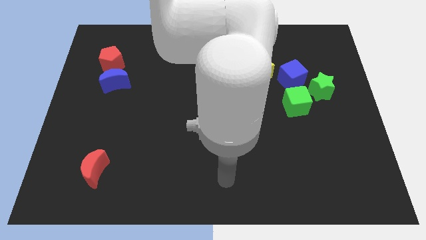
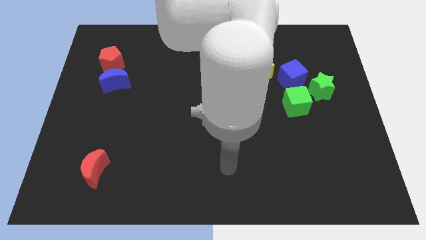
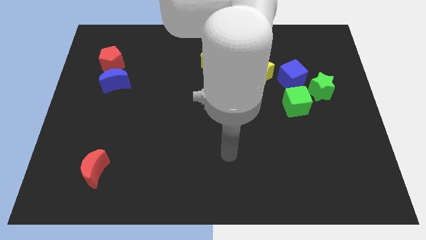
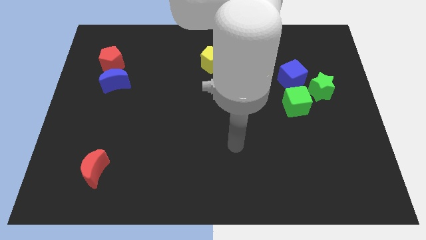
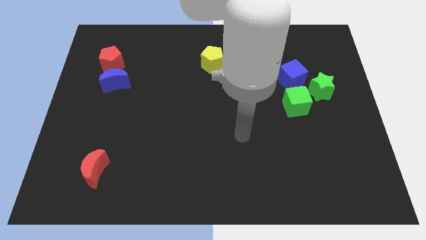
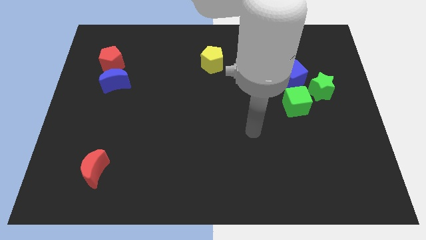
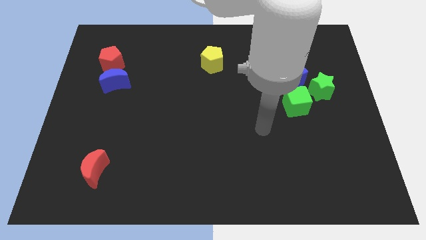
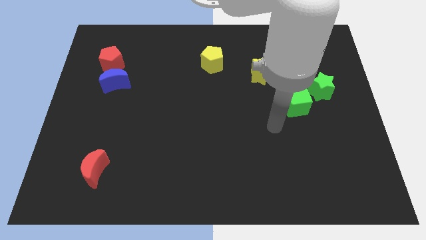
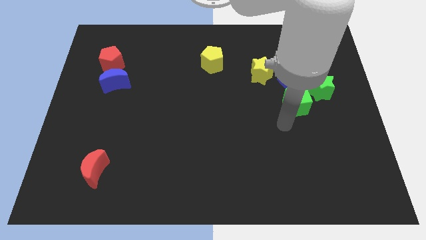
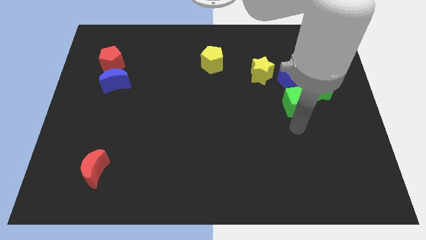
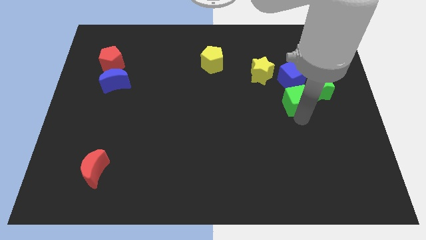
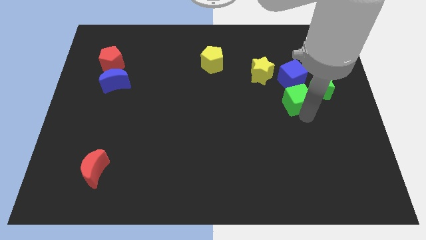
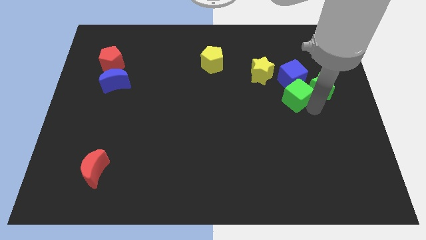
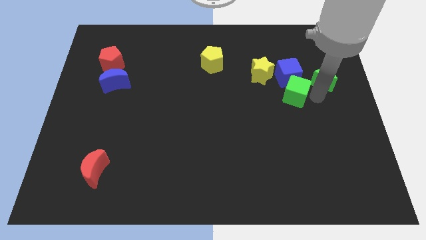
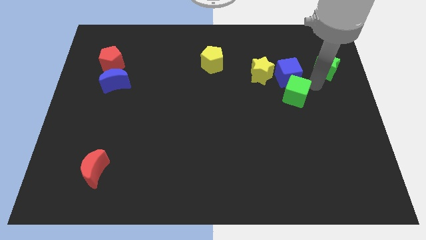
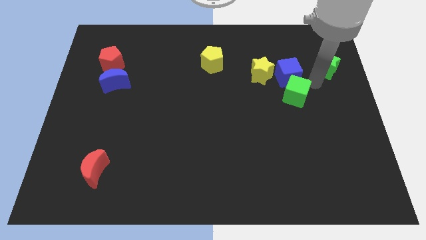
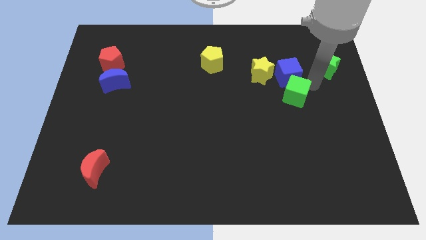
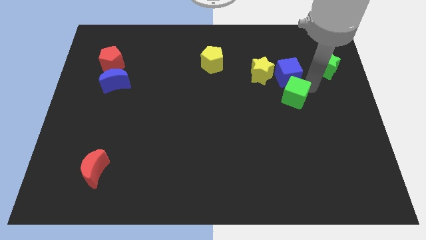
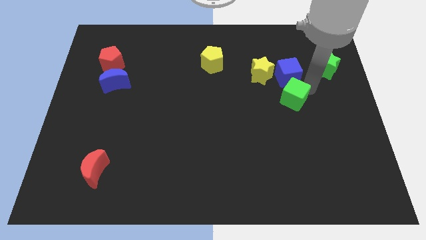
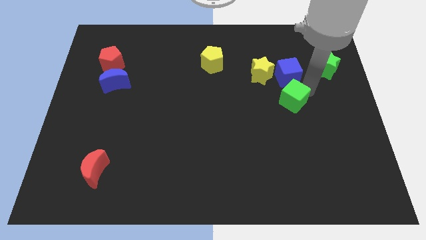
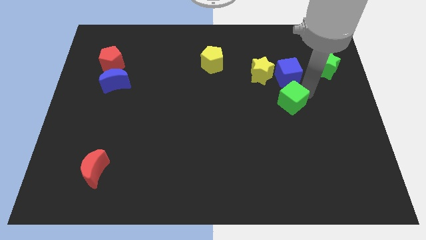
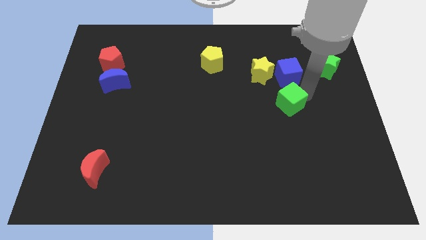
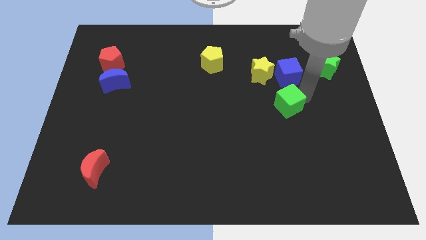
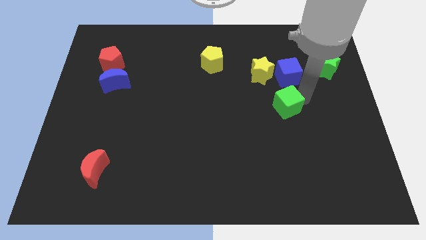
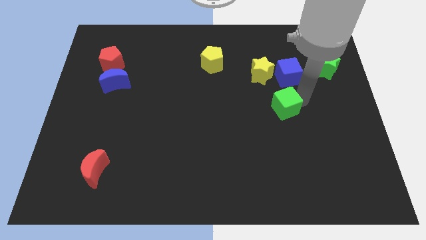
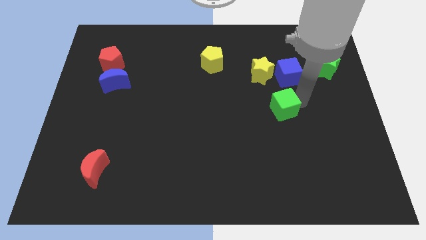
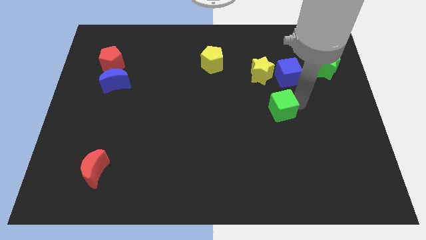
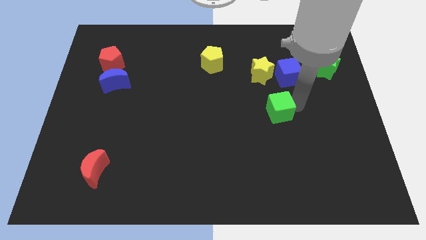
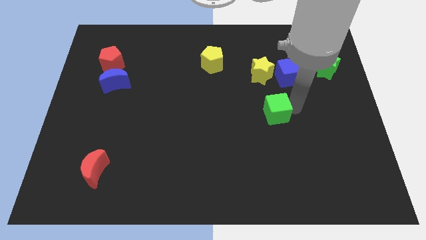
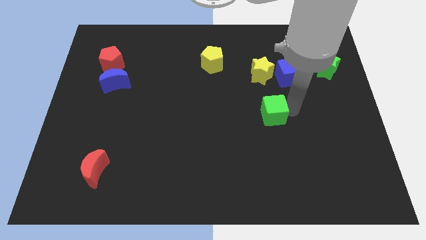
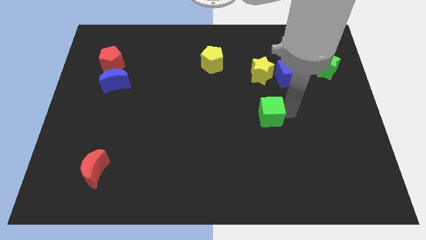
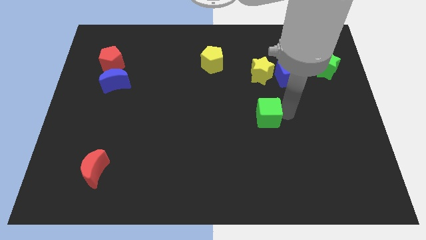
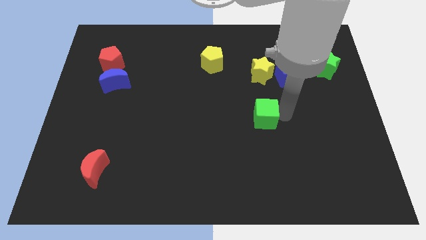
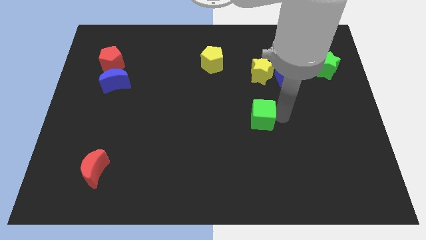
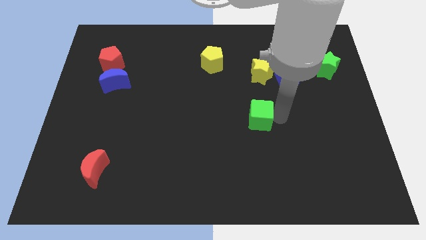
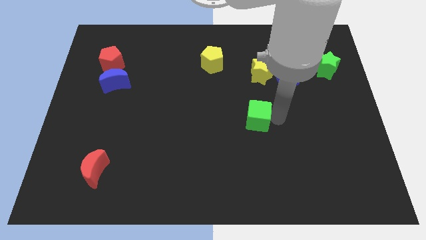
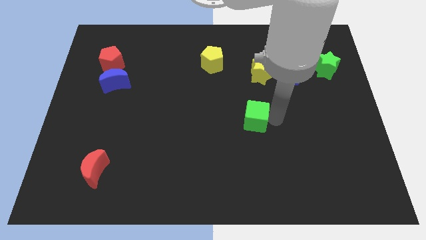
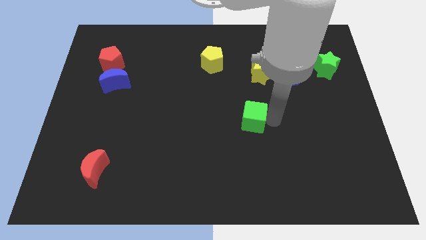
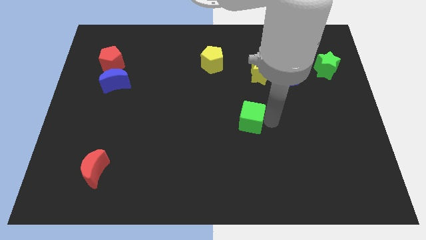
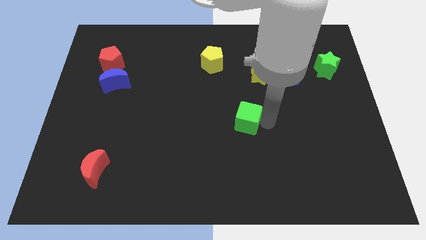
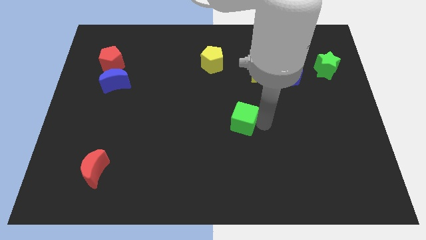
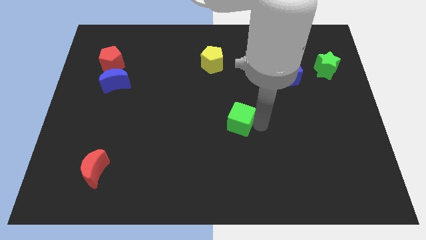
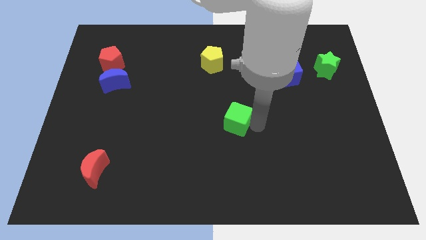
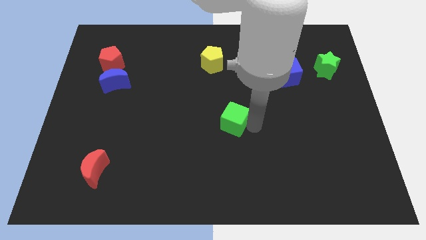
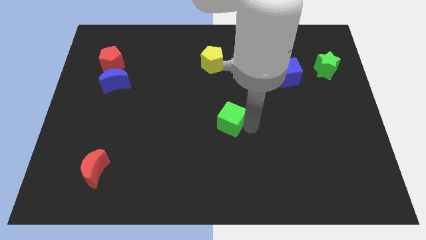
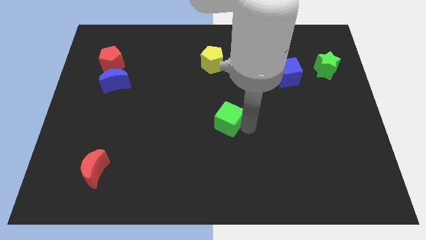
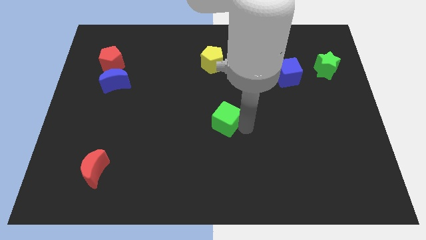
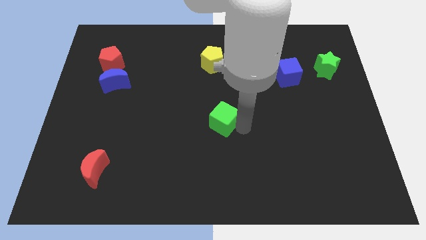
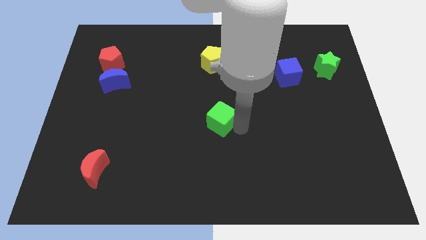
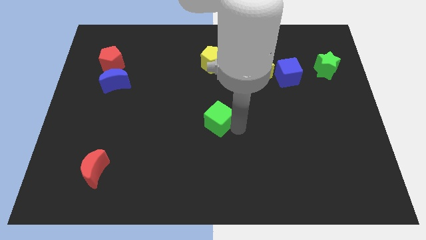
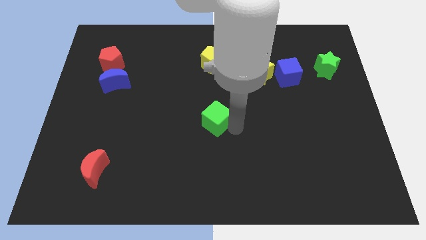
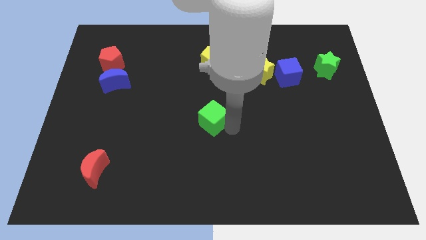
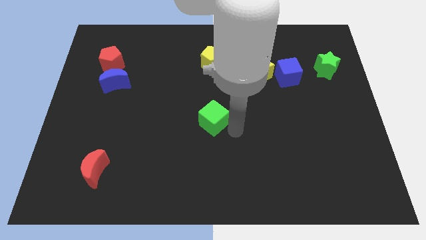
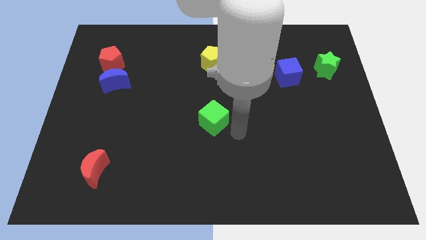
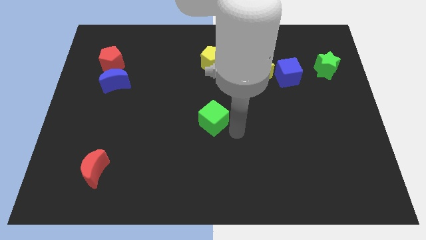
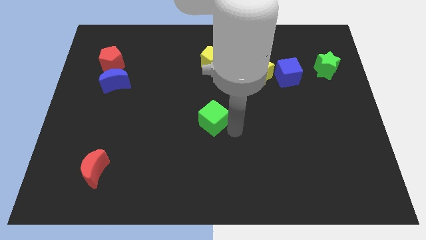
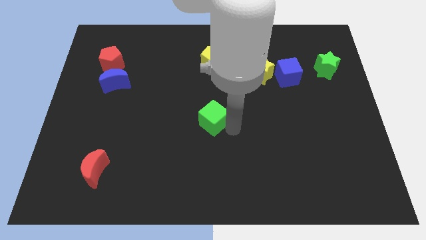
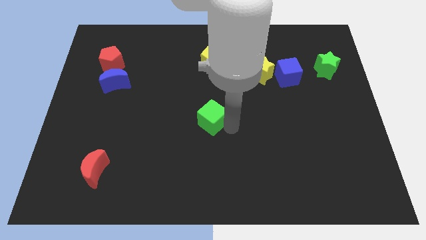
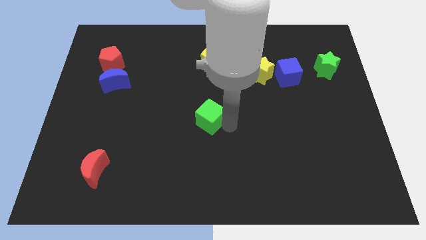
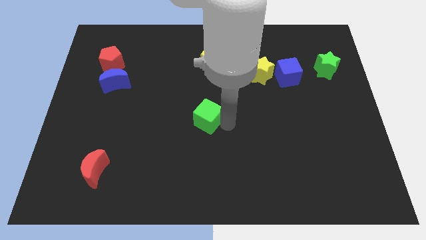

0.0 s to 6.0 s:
slide the green cube left

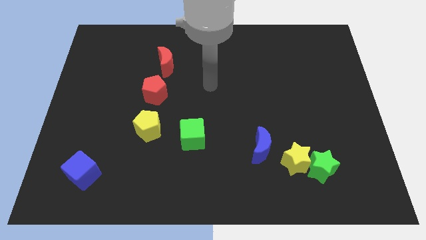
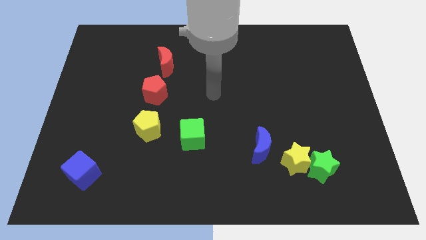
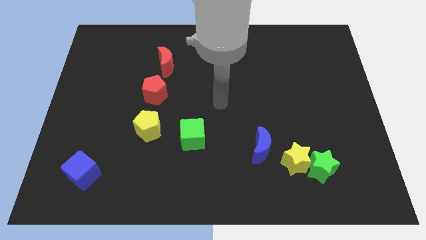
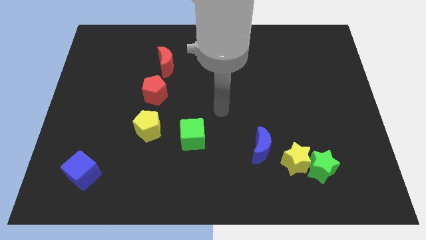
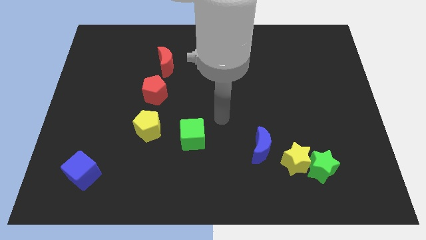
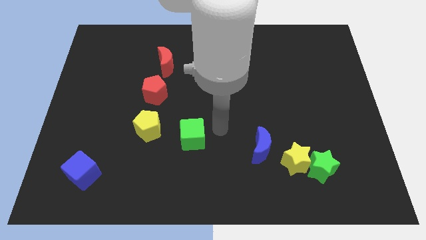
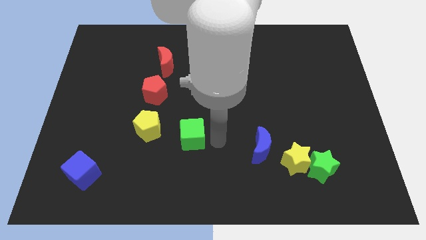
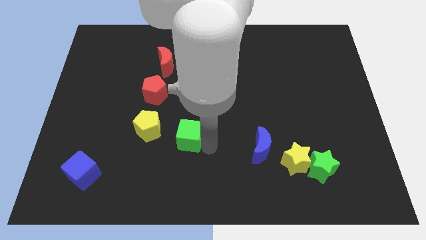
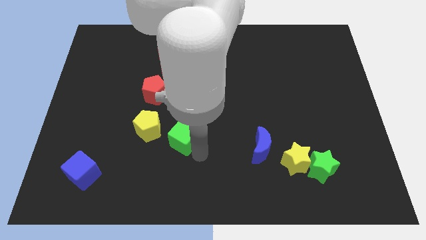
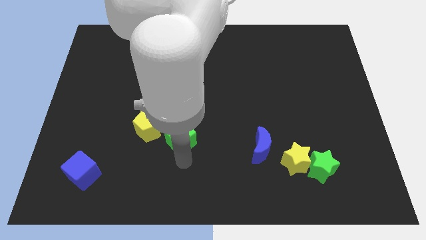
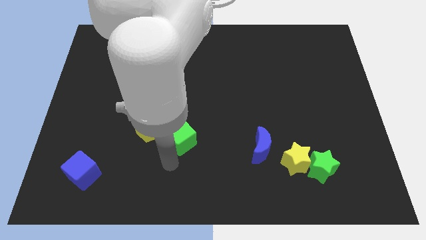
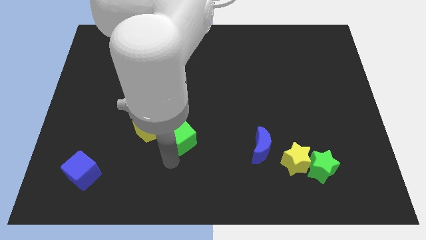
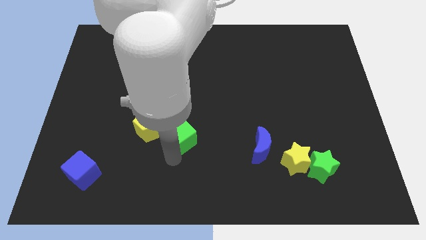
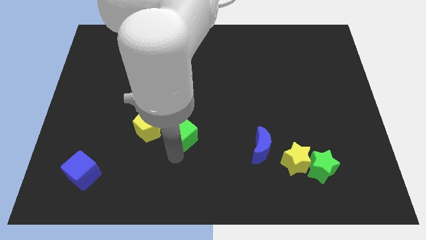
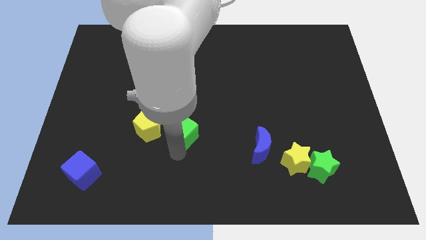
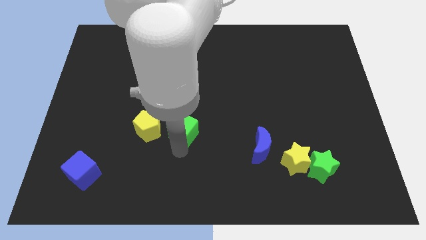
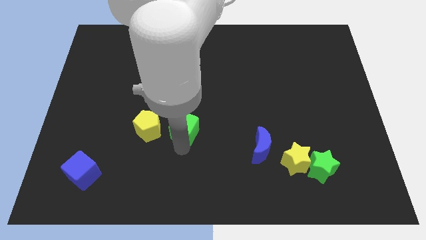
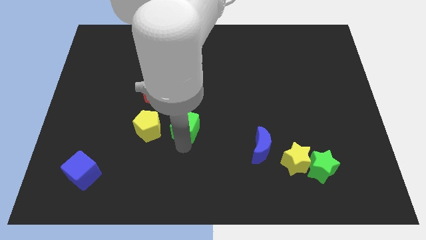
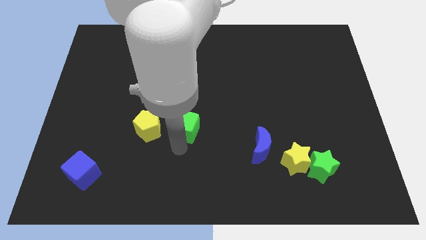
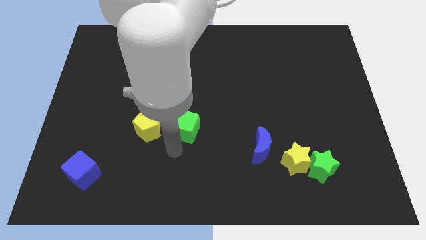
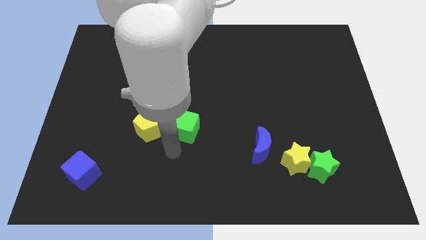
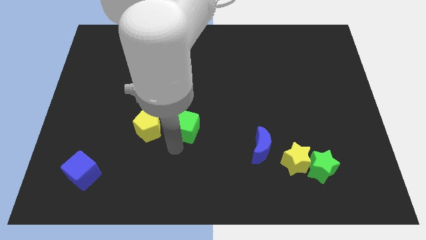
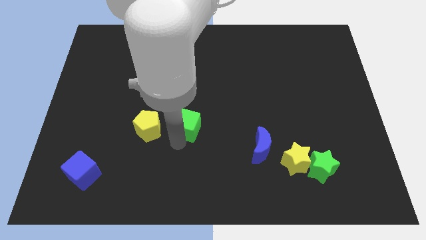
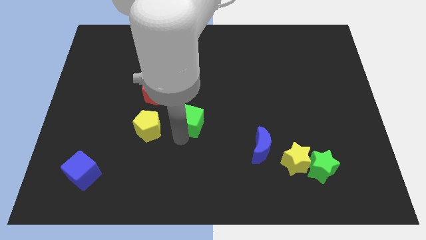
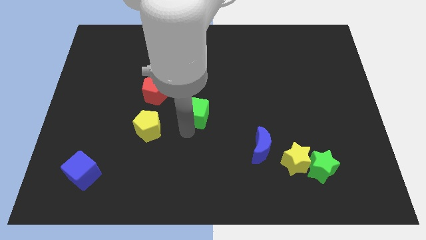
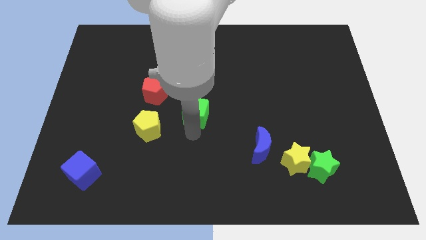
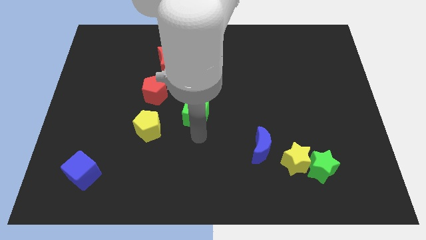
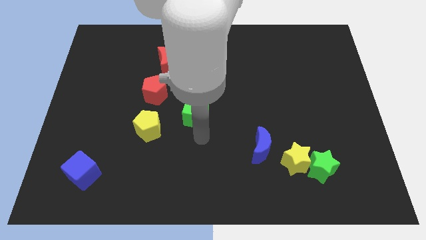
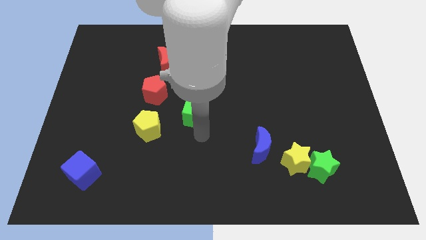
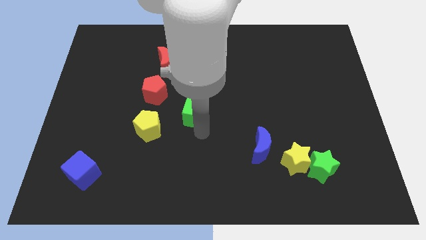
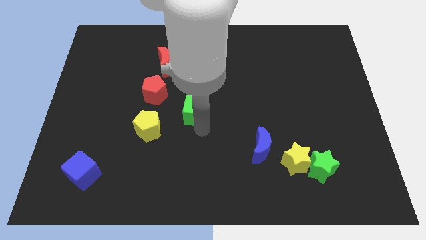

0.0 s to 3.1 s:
push the green cube a little bit upwards
